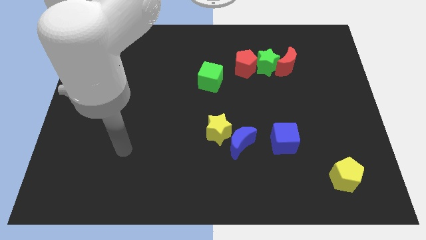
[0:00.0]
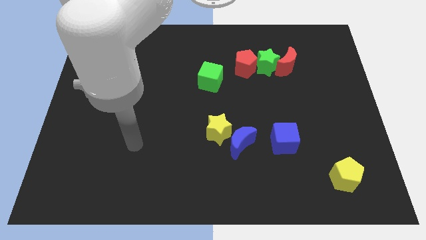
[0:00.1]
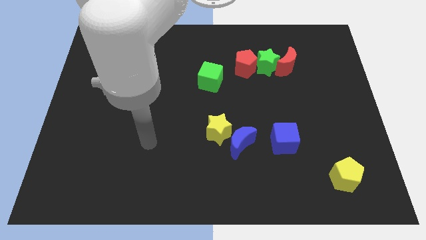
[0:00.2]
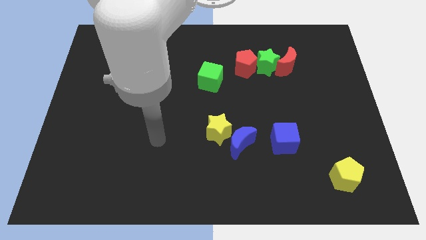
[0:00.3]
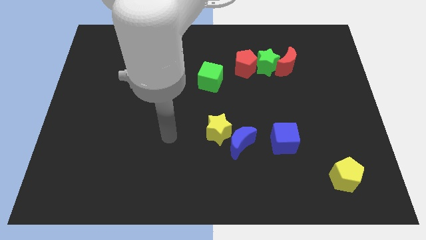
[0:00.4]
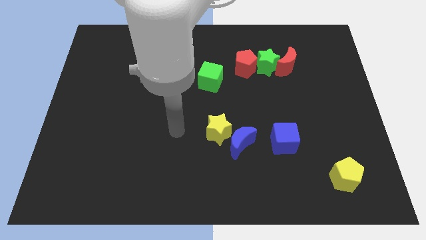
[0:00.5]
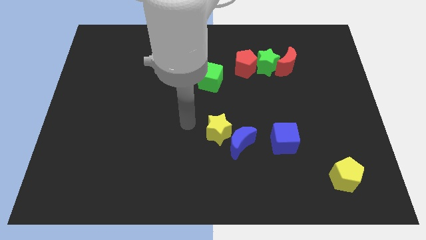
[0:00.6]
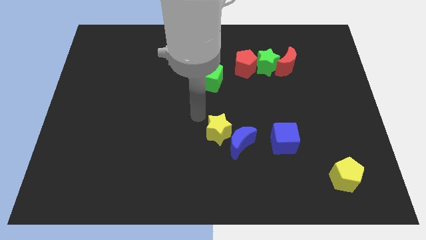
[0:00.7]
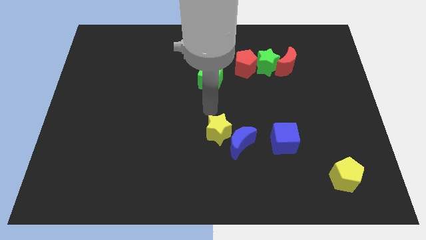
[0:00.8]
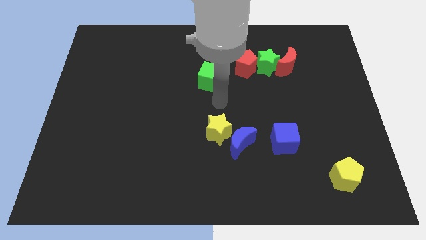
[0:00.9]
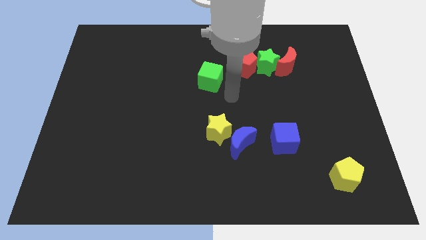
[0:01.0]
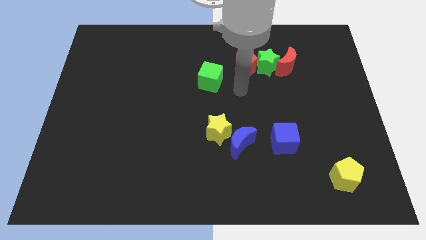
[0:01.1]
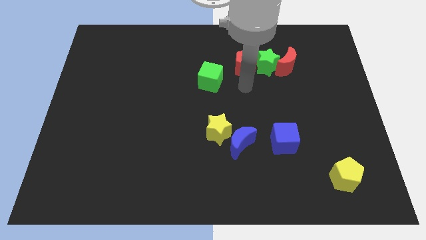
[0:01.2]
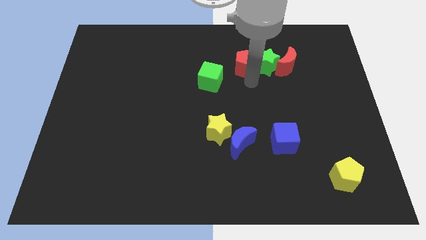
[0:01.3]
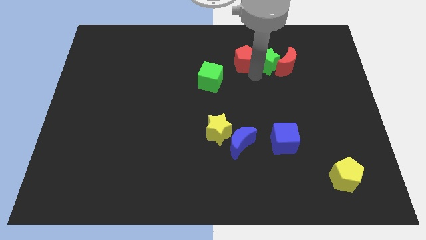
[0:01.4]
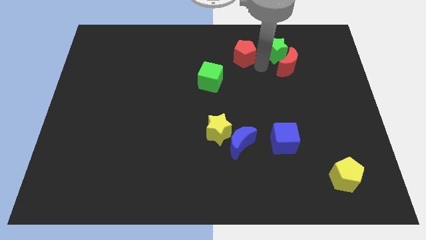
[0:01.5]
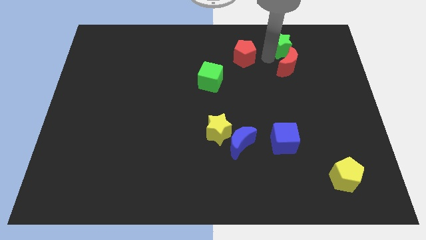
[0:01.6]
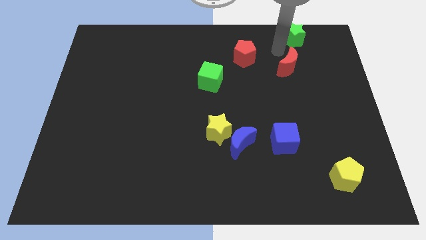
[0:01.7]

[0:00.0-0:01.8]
pull the red moon apart from the green star

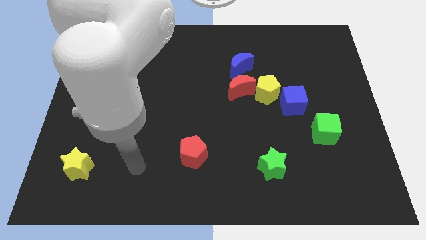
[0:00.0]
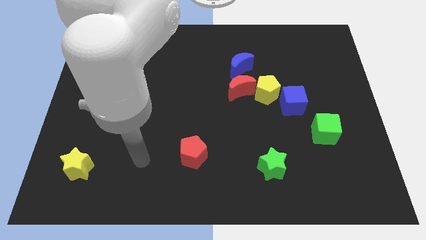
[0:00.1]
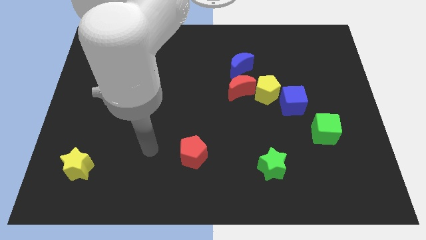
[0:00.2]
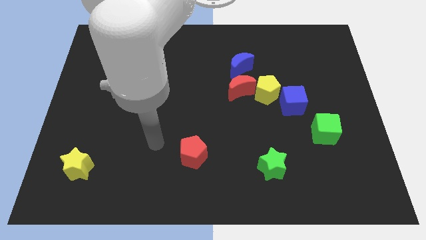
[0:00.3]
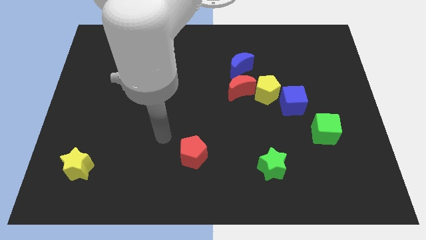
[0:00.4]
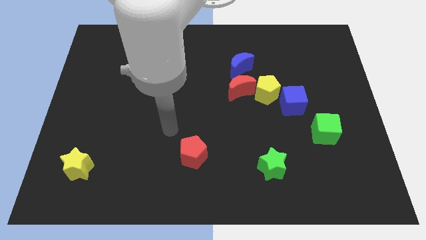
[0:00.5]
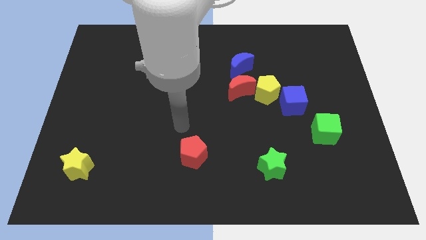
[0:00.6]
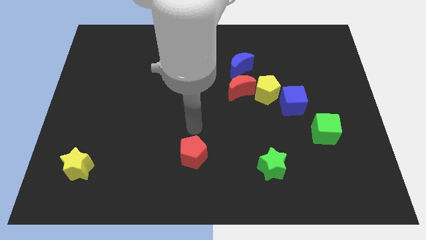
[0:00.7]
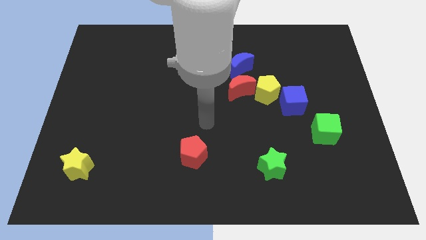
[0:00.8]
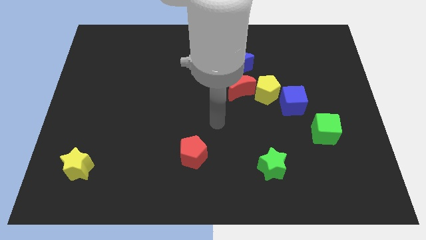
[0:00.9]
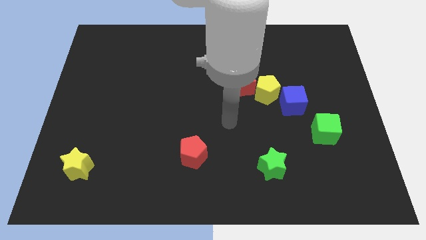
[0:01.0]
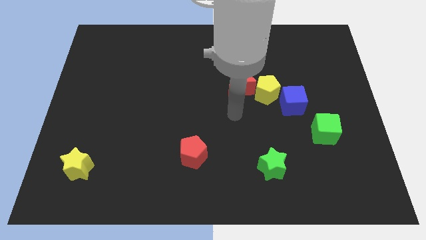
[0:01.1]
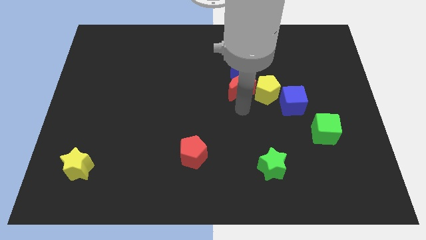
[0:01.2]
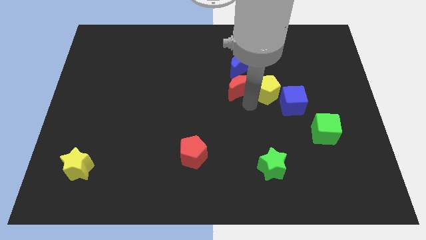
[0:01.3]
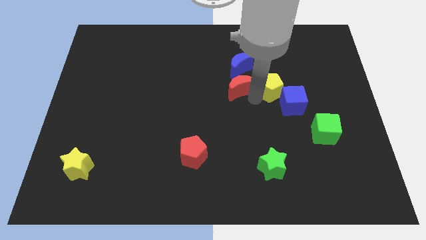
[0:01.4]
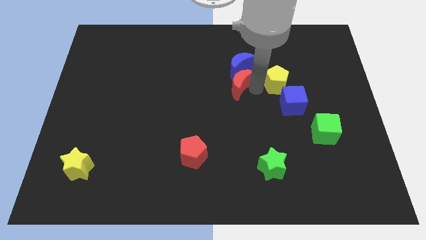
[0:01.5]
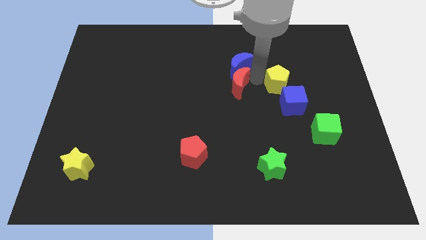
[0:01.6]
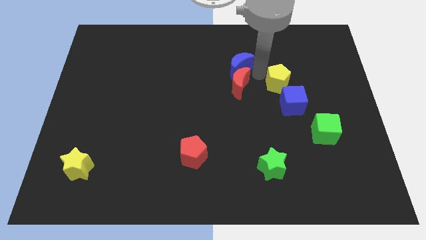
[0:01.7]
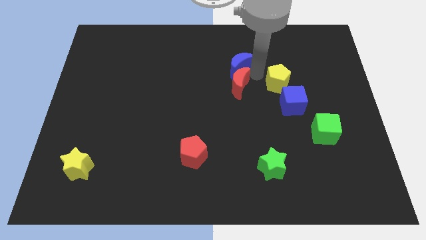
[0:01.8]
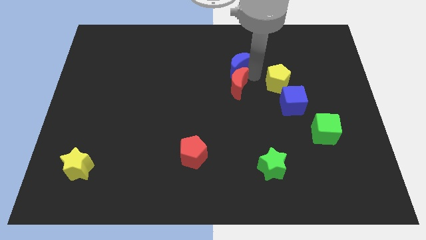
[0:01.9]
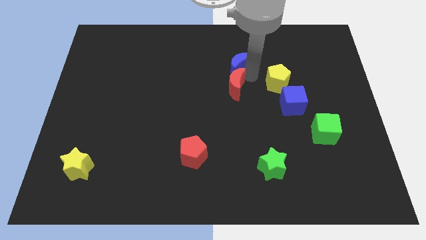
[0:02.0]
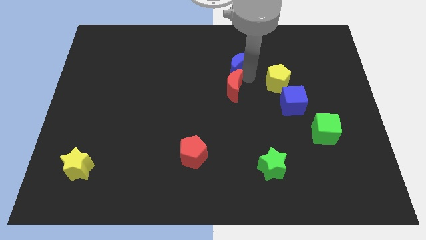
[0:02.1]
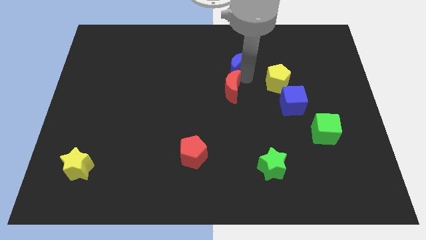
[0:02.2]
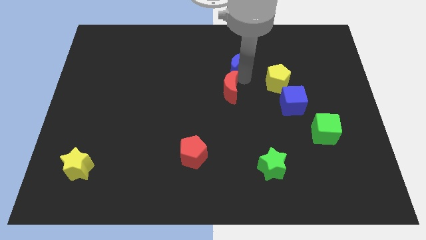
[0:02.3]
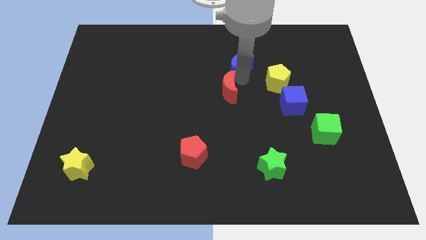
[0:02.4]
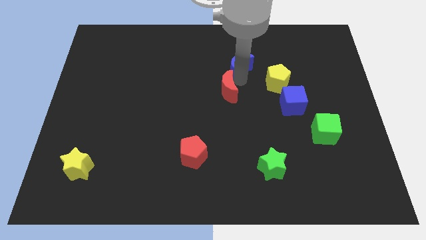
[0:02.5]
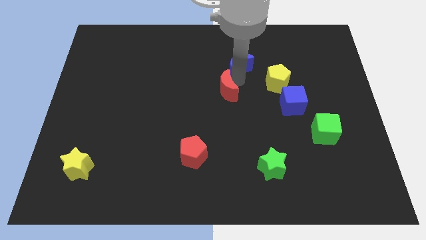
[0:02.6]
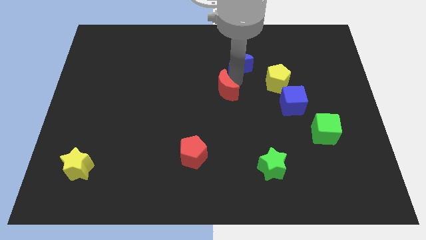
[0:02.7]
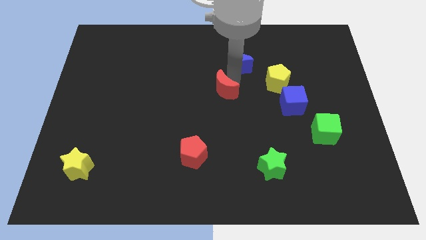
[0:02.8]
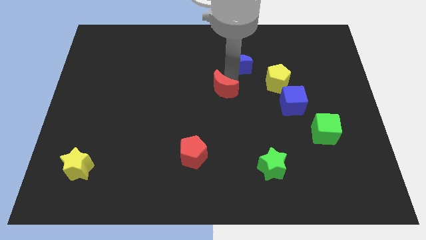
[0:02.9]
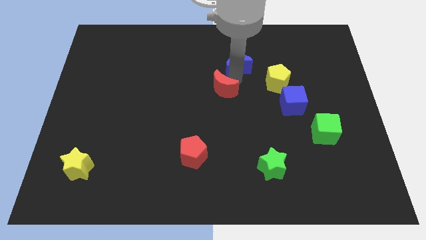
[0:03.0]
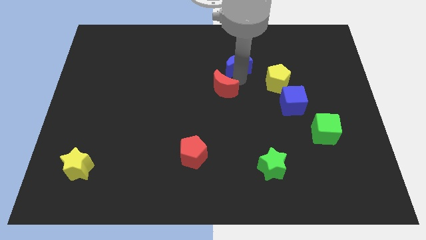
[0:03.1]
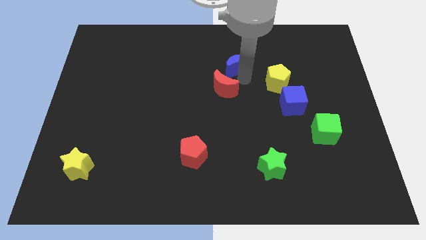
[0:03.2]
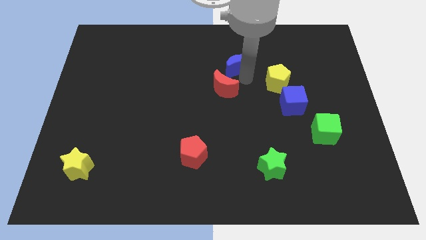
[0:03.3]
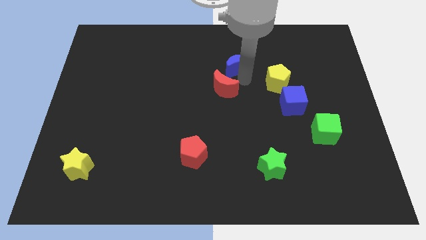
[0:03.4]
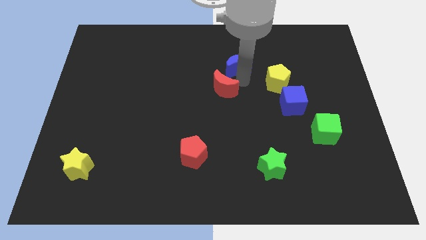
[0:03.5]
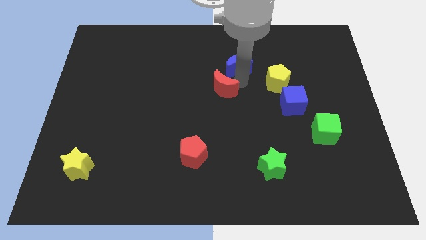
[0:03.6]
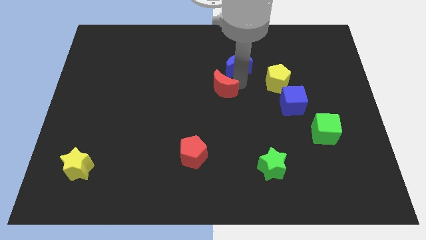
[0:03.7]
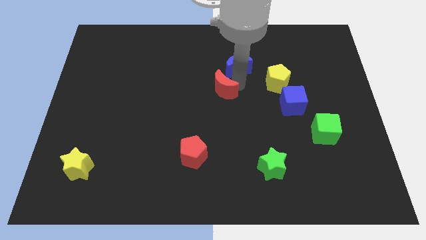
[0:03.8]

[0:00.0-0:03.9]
move the red moon away from the yellow pentagon and blue moon

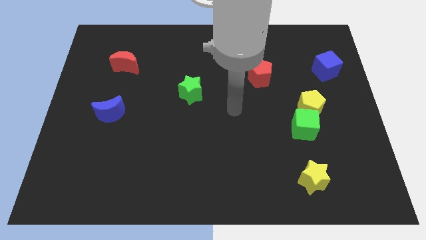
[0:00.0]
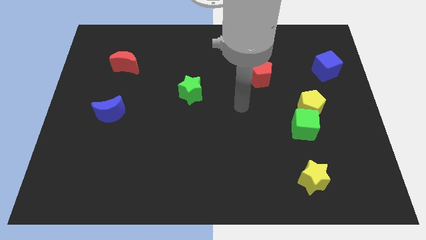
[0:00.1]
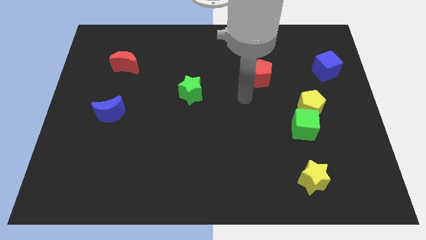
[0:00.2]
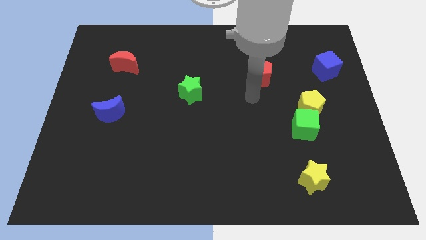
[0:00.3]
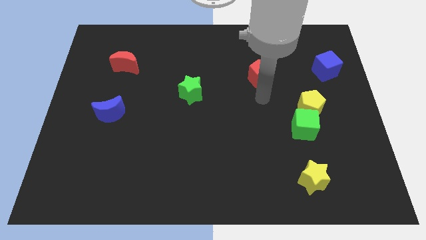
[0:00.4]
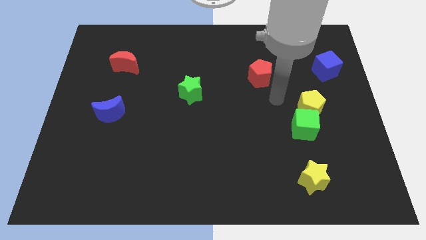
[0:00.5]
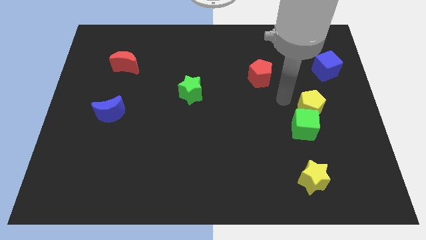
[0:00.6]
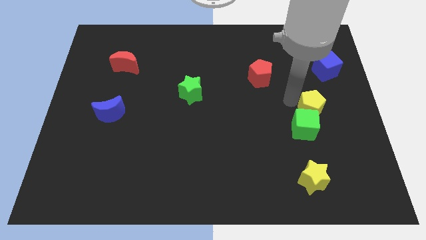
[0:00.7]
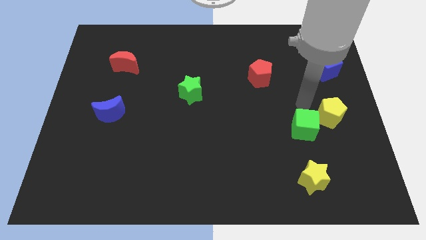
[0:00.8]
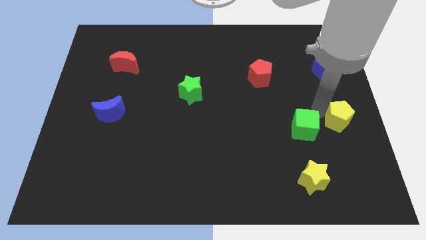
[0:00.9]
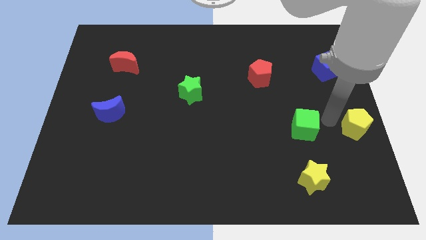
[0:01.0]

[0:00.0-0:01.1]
separate the green cube from the yellow pentagon

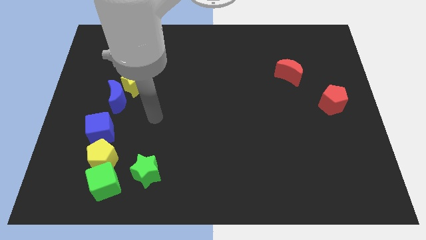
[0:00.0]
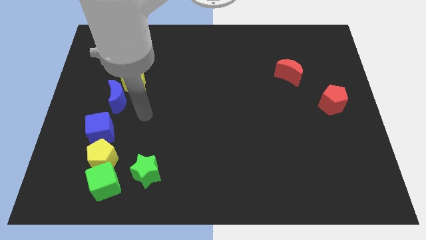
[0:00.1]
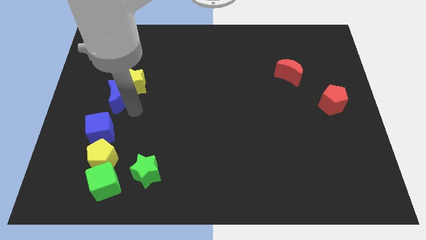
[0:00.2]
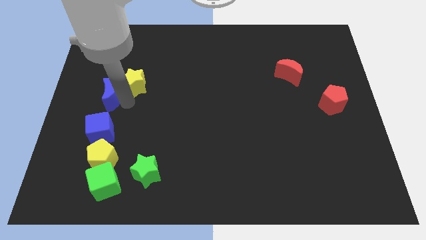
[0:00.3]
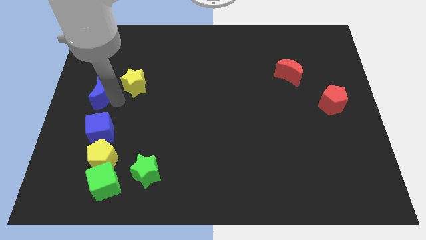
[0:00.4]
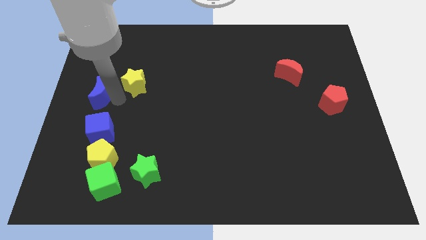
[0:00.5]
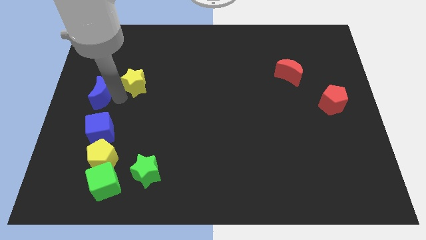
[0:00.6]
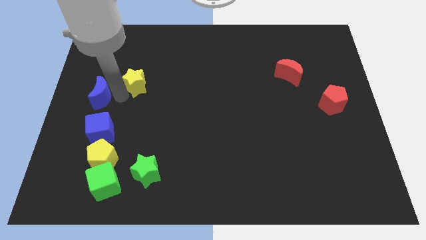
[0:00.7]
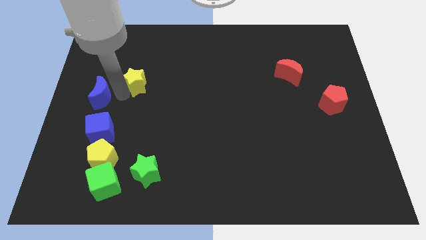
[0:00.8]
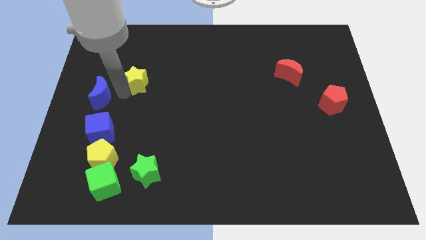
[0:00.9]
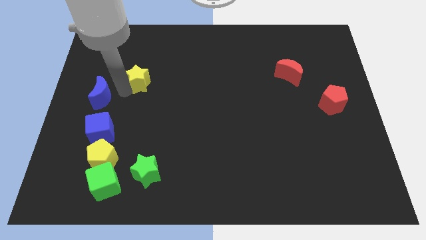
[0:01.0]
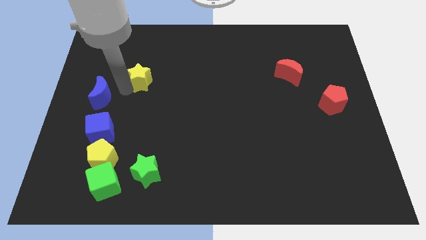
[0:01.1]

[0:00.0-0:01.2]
pull the yellow star apart from the blue moon

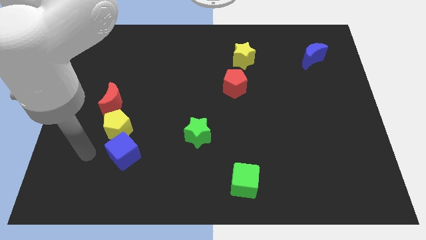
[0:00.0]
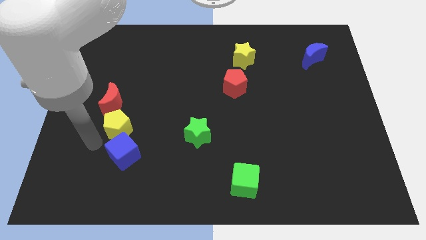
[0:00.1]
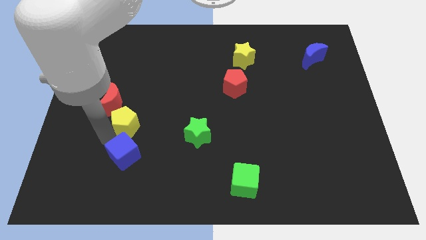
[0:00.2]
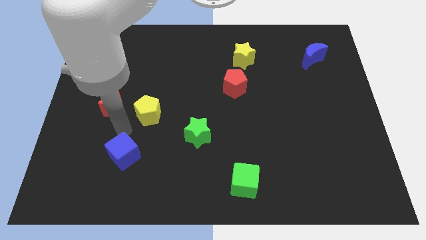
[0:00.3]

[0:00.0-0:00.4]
separate the blue cube from the yellow pentagon

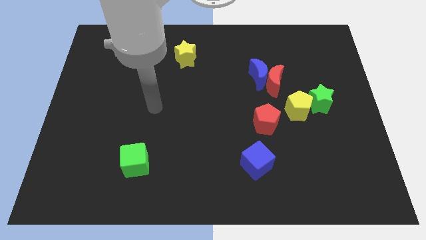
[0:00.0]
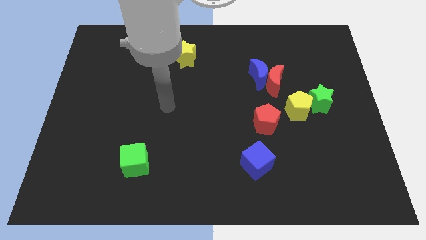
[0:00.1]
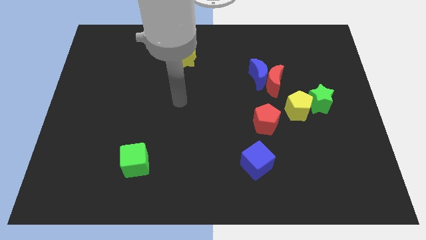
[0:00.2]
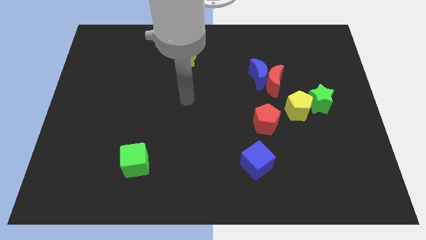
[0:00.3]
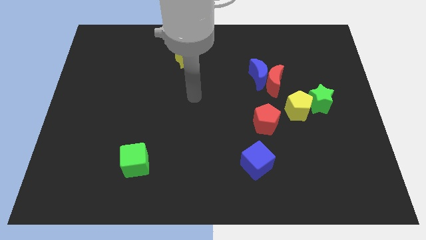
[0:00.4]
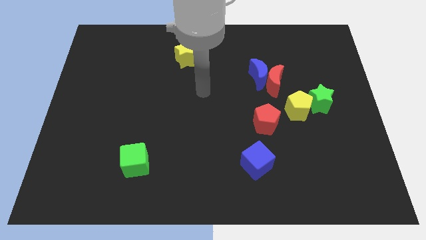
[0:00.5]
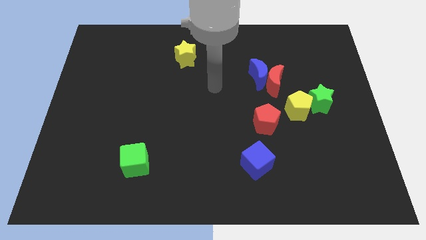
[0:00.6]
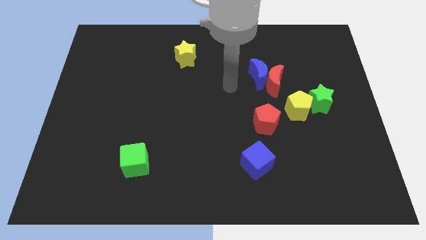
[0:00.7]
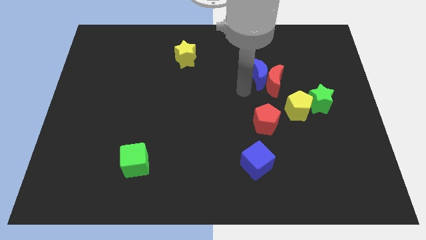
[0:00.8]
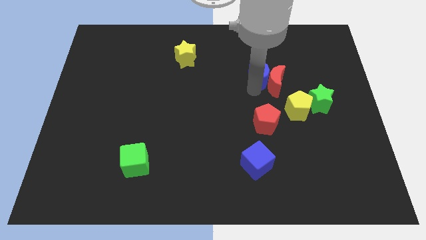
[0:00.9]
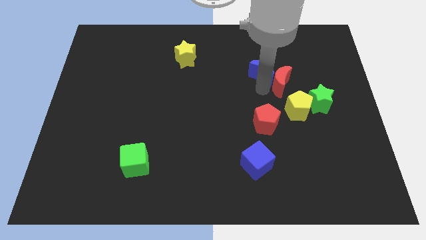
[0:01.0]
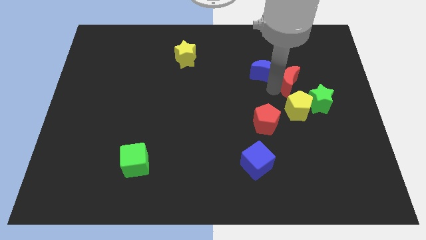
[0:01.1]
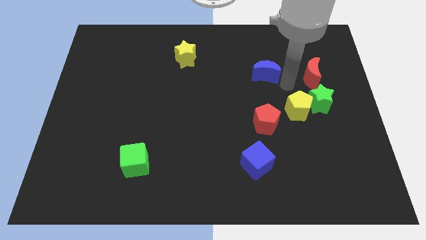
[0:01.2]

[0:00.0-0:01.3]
pull the blue moon apart from the red moon
